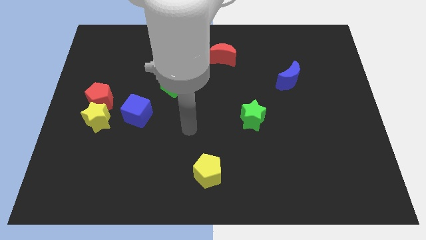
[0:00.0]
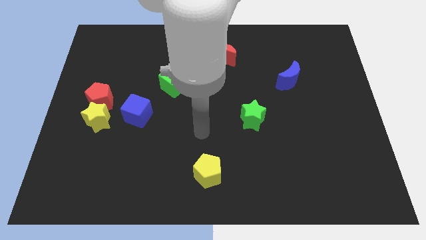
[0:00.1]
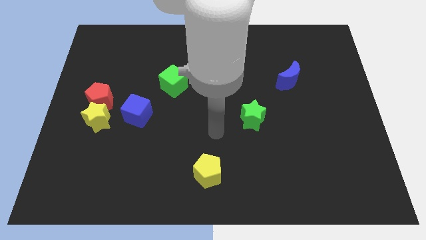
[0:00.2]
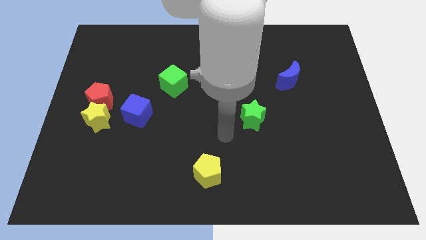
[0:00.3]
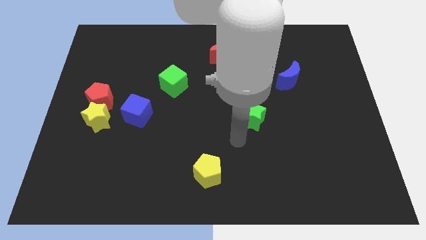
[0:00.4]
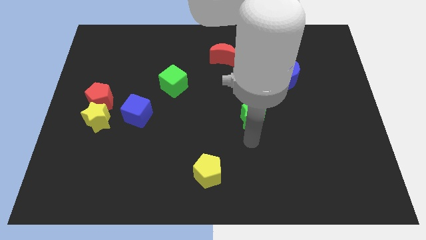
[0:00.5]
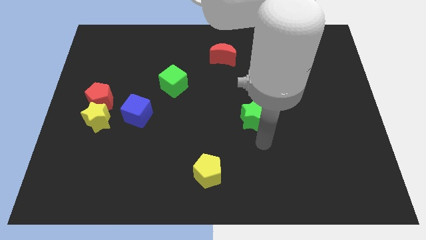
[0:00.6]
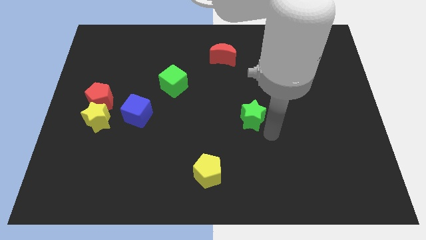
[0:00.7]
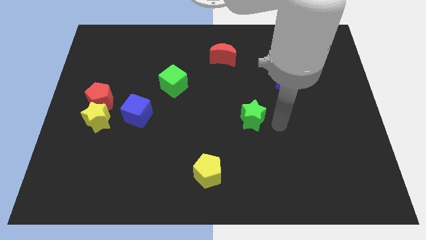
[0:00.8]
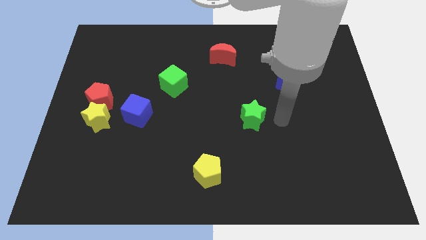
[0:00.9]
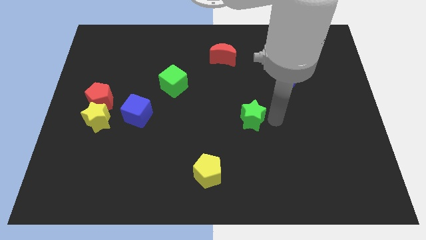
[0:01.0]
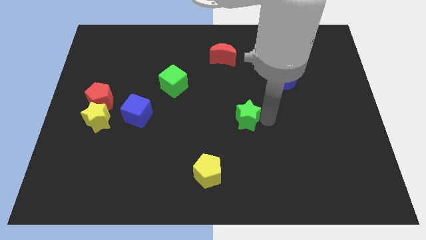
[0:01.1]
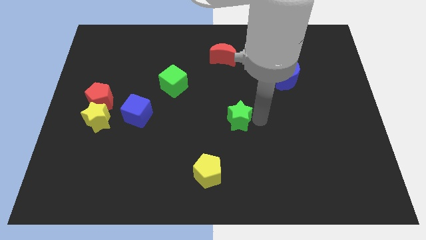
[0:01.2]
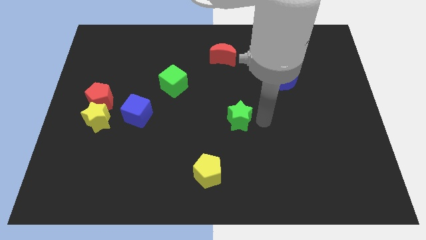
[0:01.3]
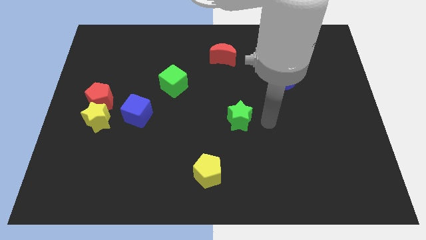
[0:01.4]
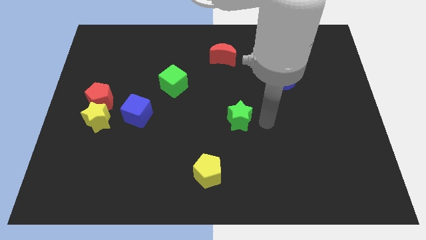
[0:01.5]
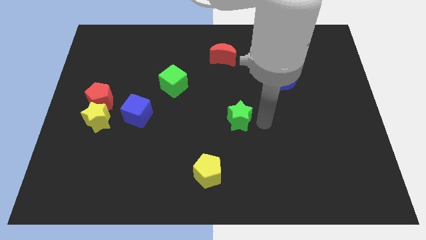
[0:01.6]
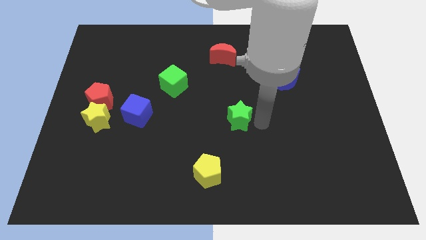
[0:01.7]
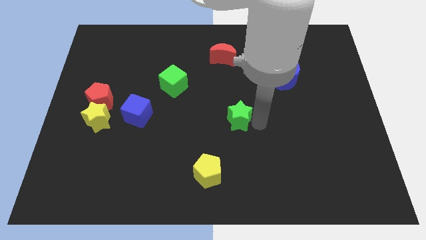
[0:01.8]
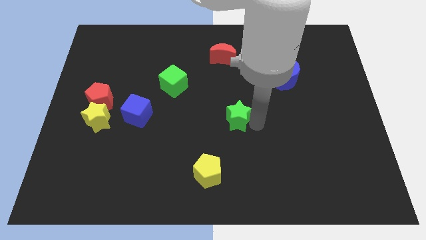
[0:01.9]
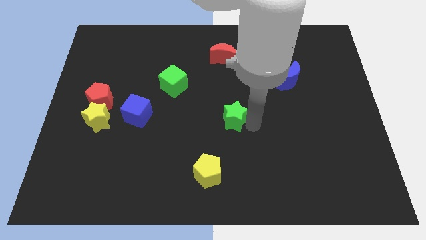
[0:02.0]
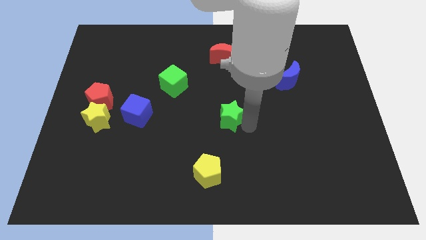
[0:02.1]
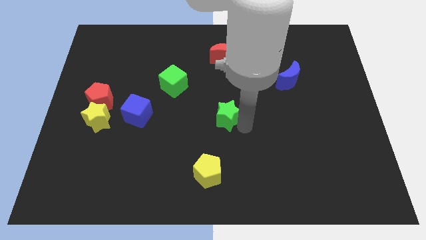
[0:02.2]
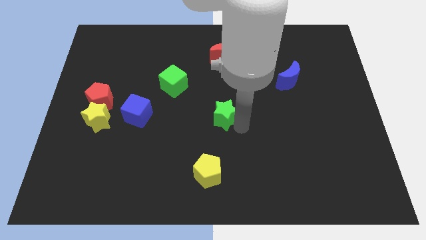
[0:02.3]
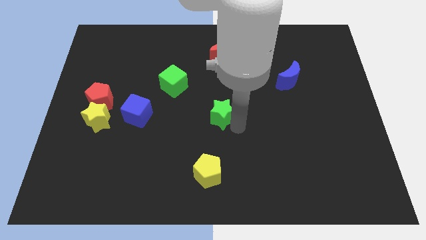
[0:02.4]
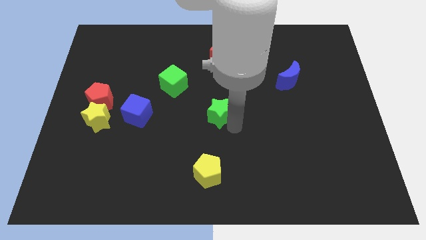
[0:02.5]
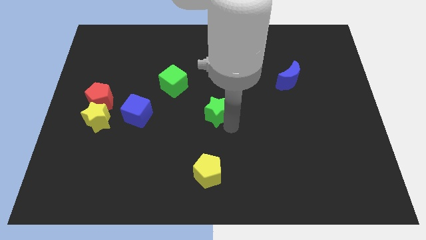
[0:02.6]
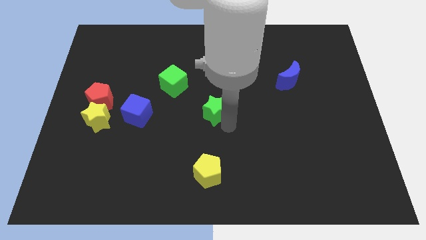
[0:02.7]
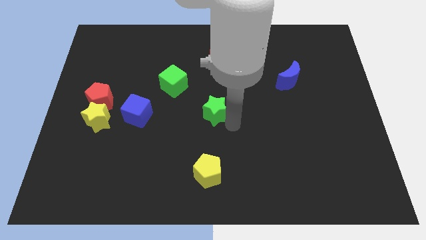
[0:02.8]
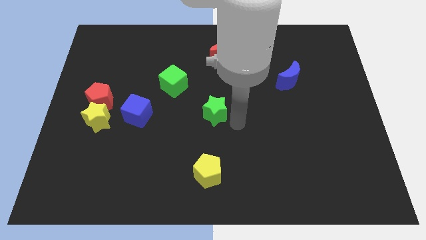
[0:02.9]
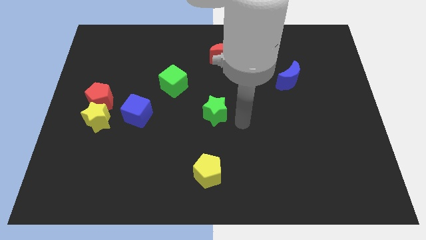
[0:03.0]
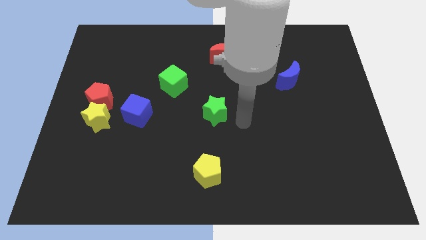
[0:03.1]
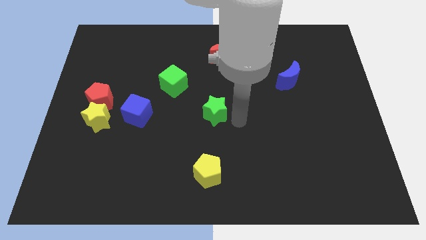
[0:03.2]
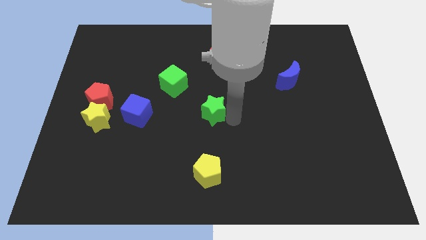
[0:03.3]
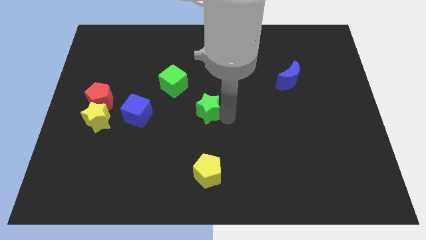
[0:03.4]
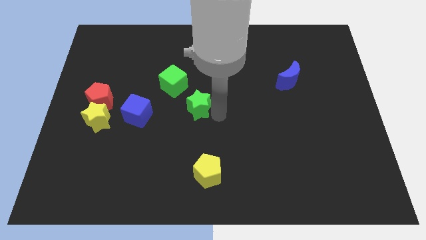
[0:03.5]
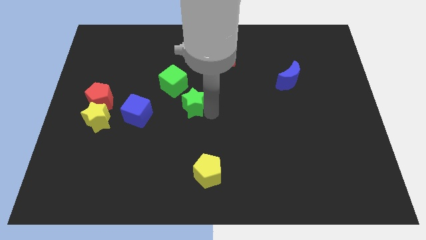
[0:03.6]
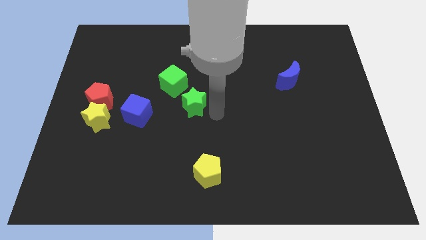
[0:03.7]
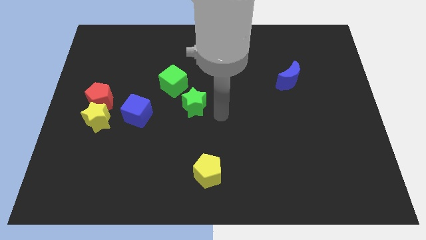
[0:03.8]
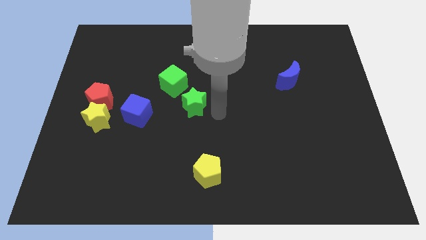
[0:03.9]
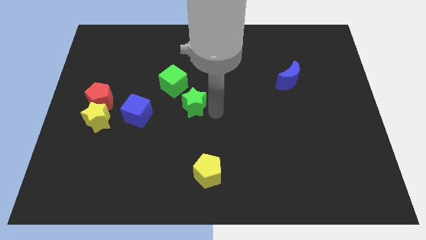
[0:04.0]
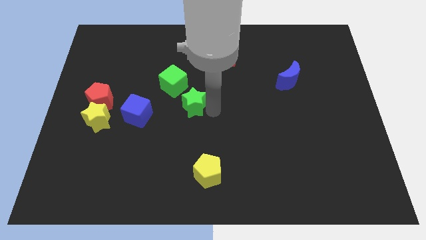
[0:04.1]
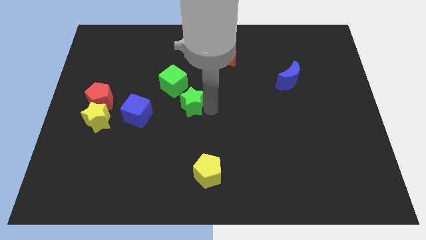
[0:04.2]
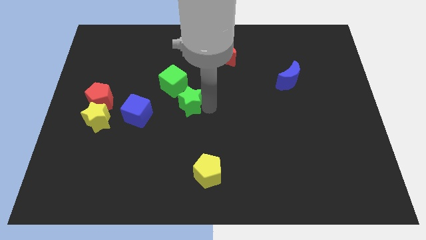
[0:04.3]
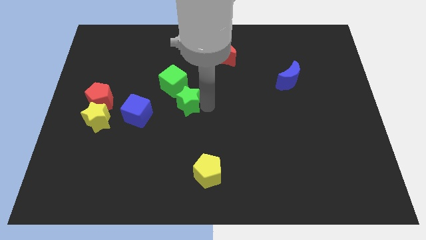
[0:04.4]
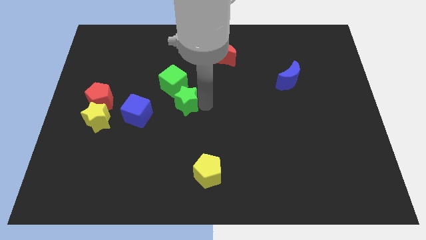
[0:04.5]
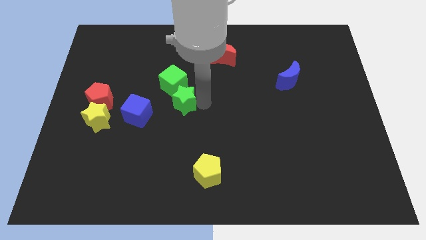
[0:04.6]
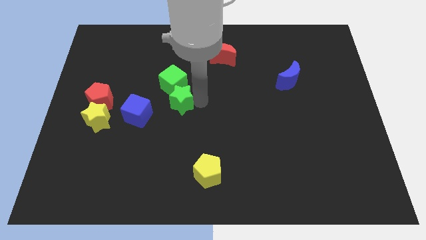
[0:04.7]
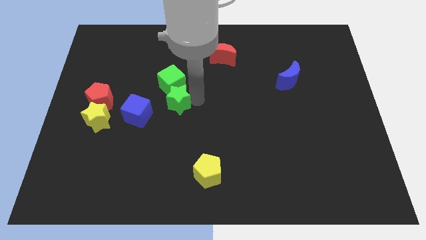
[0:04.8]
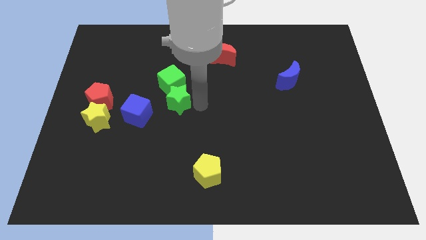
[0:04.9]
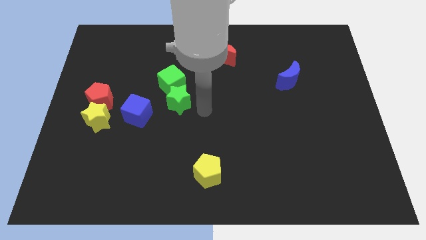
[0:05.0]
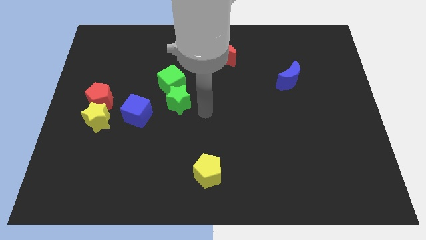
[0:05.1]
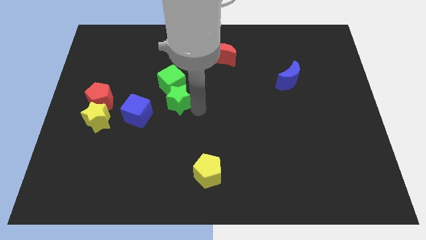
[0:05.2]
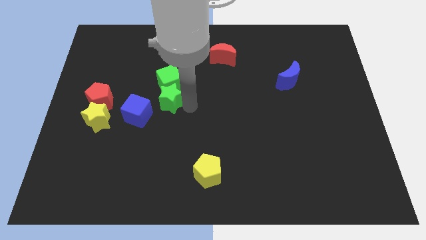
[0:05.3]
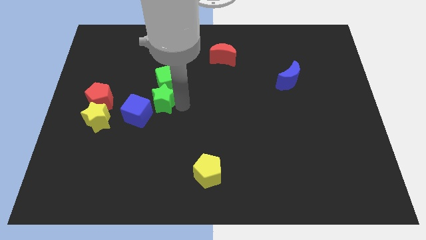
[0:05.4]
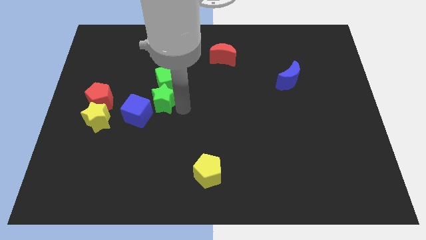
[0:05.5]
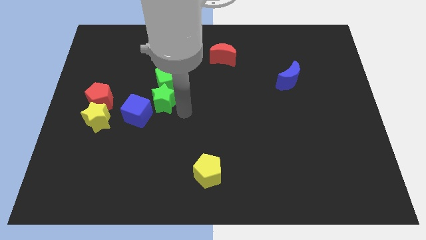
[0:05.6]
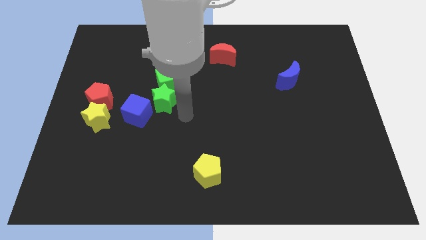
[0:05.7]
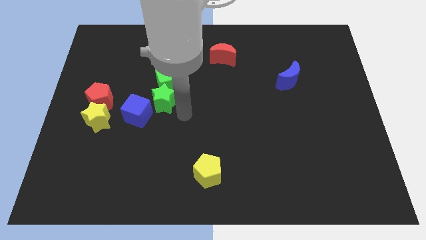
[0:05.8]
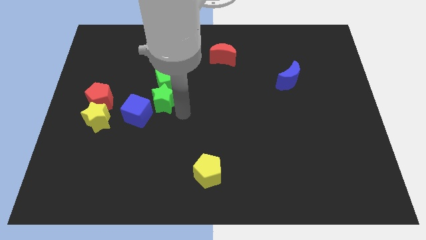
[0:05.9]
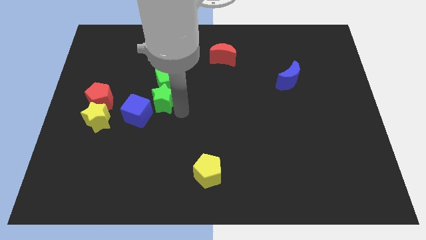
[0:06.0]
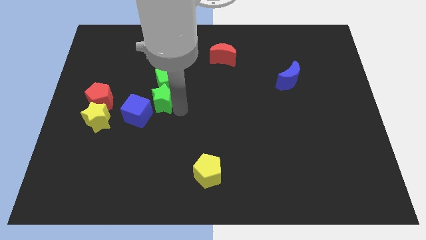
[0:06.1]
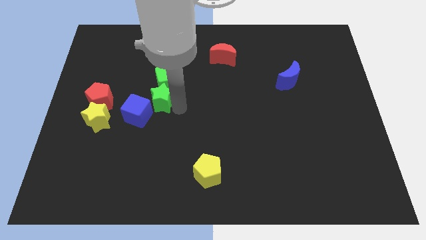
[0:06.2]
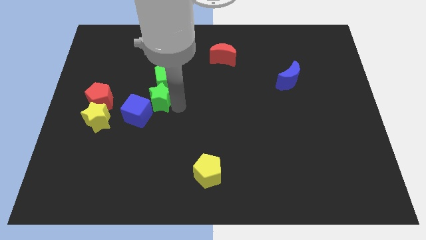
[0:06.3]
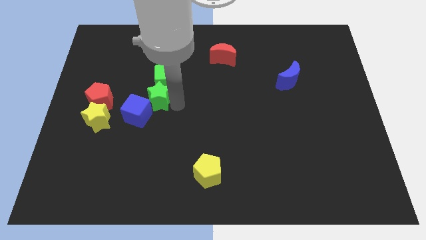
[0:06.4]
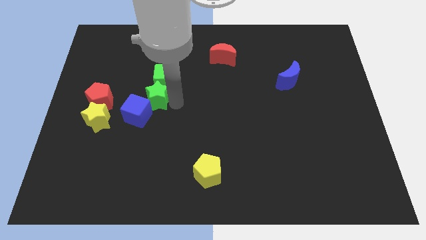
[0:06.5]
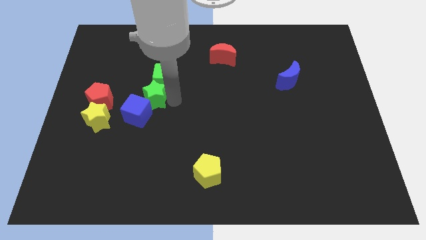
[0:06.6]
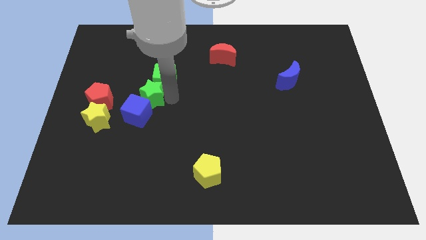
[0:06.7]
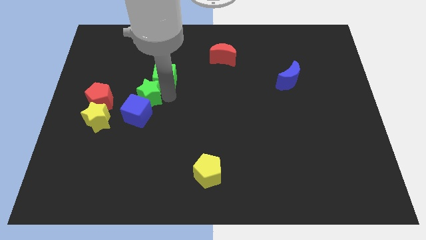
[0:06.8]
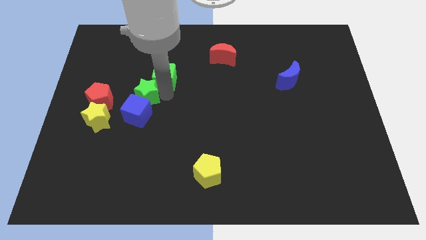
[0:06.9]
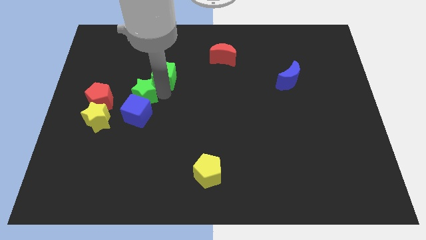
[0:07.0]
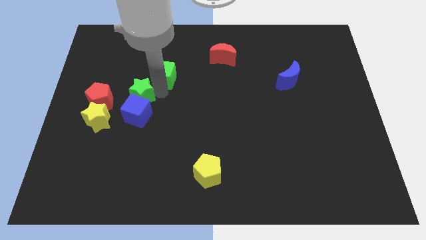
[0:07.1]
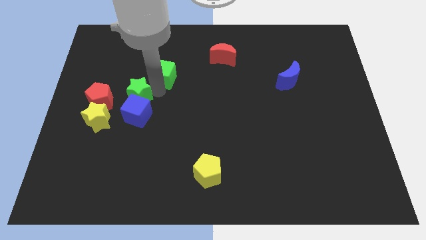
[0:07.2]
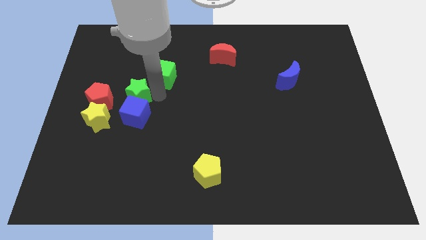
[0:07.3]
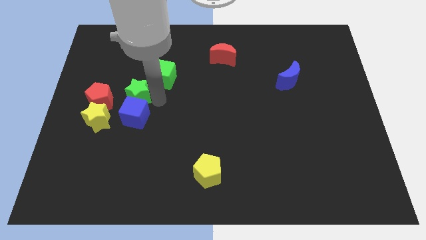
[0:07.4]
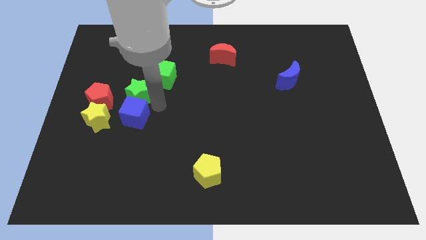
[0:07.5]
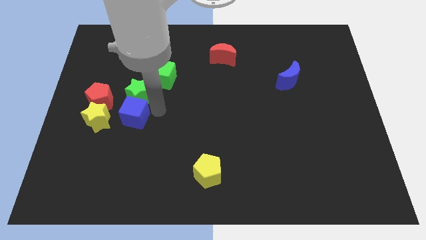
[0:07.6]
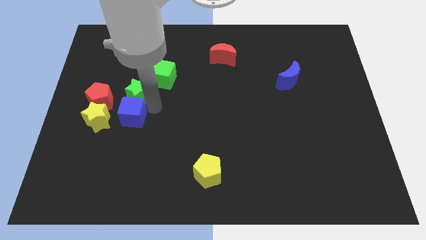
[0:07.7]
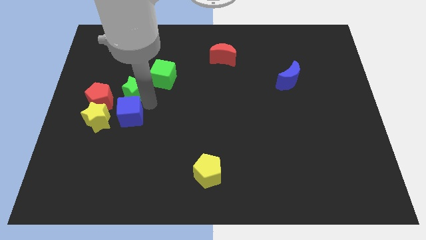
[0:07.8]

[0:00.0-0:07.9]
move the green star to the top right of the red pentagon

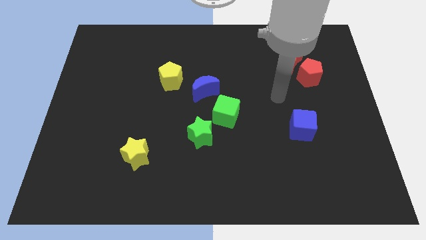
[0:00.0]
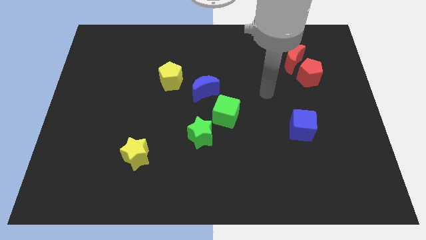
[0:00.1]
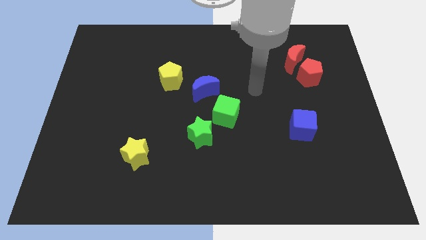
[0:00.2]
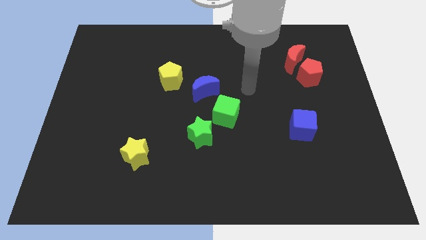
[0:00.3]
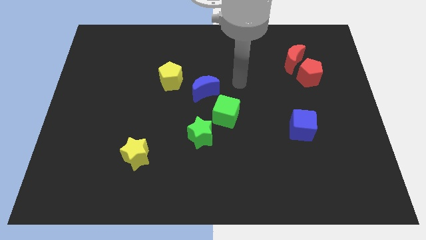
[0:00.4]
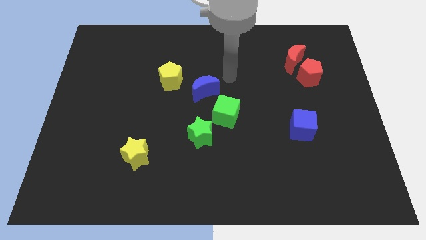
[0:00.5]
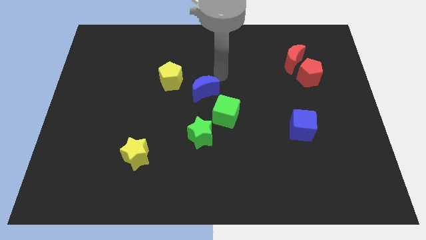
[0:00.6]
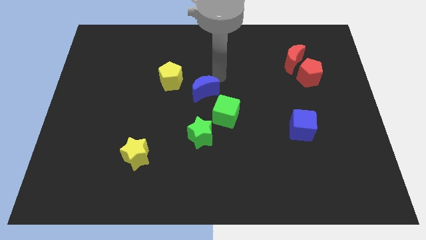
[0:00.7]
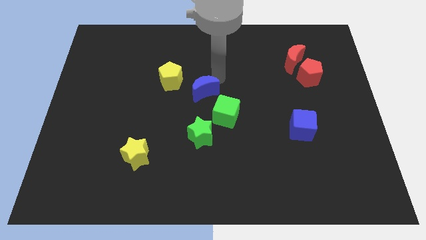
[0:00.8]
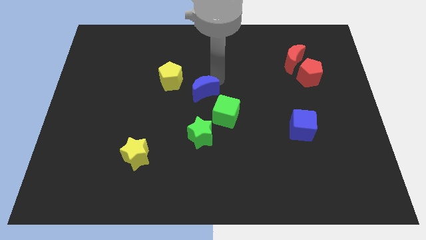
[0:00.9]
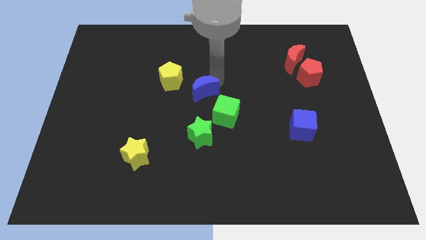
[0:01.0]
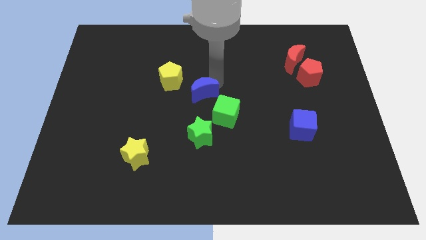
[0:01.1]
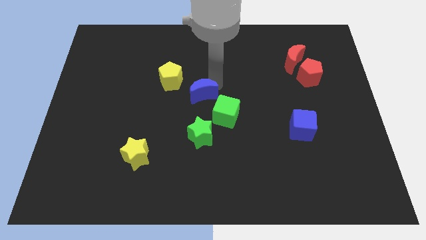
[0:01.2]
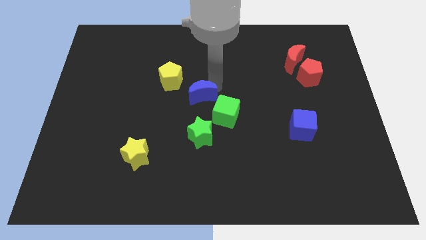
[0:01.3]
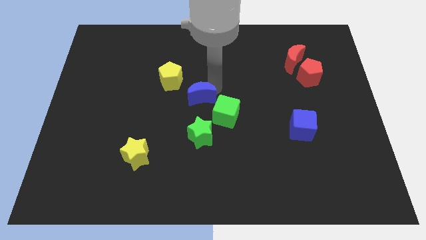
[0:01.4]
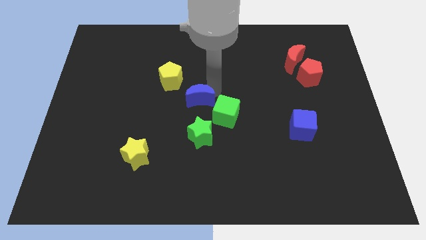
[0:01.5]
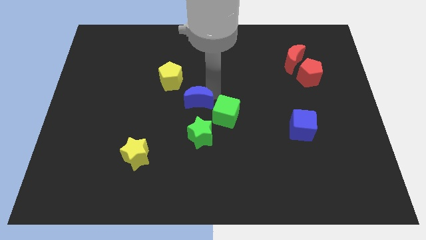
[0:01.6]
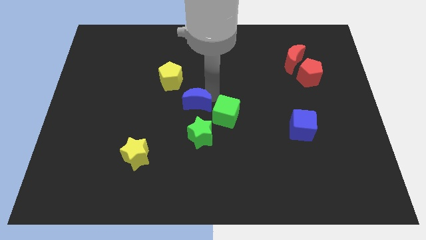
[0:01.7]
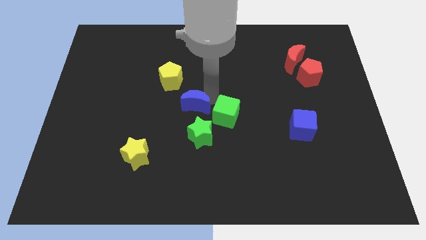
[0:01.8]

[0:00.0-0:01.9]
put the blue moon diagonally up and to the left of the green star
